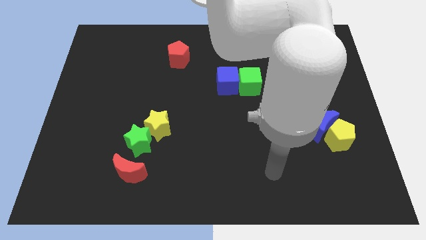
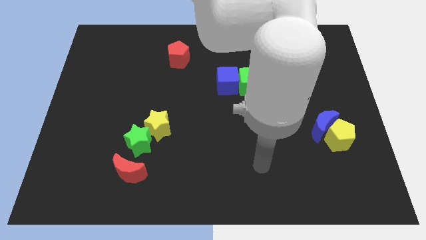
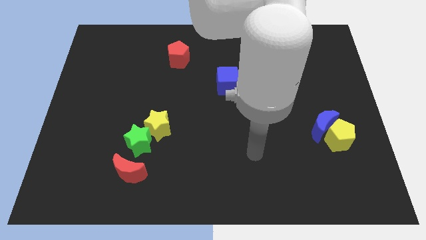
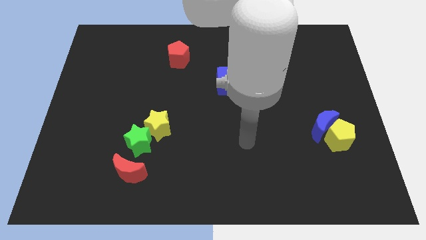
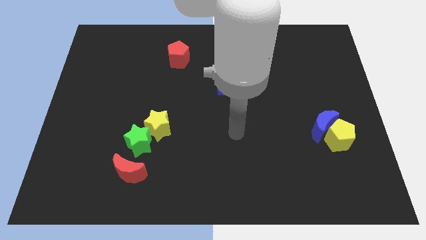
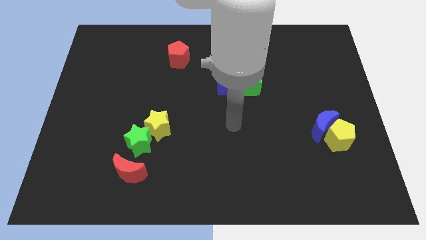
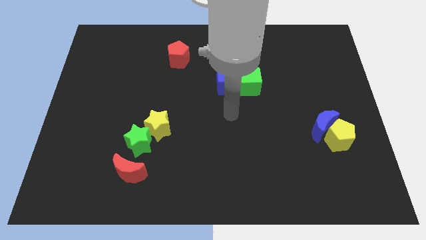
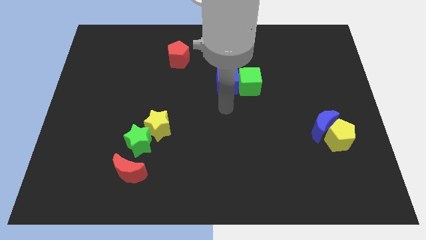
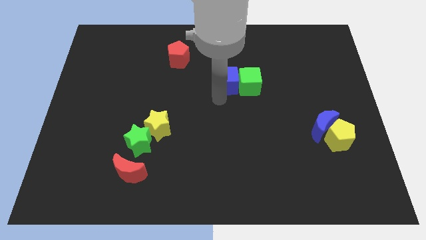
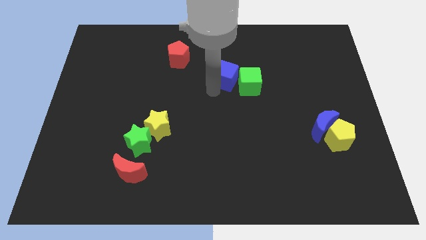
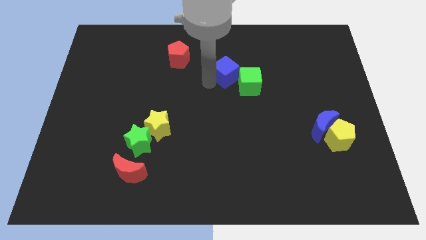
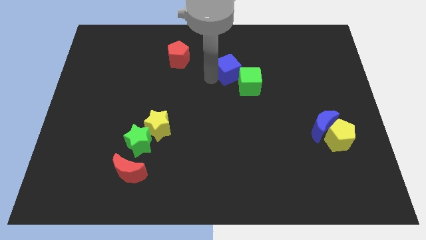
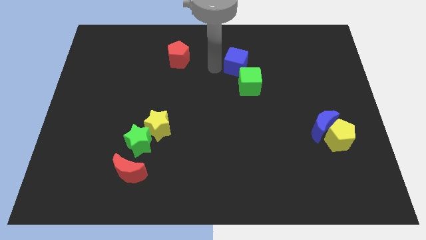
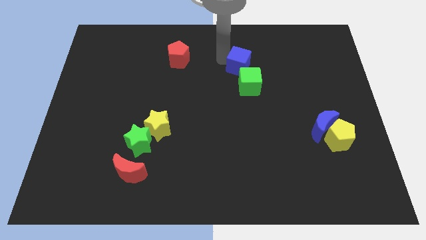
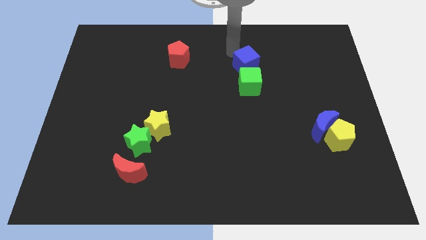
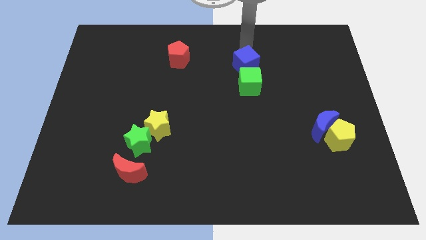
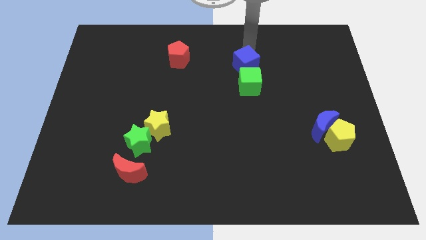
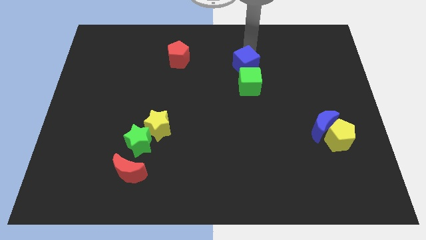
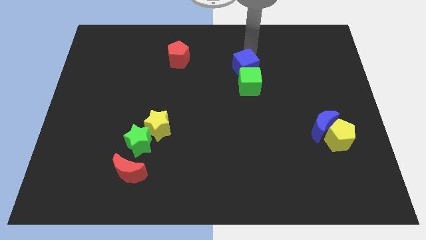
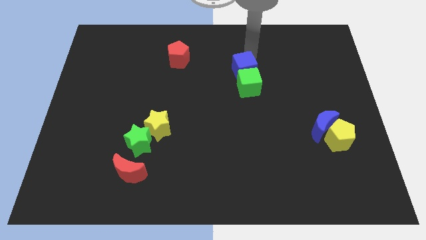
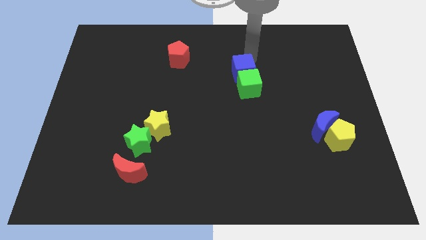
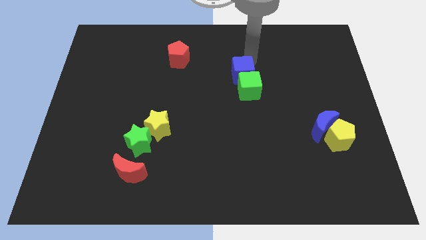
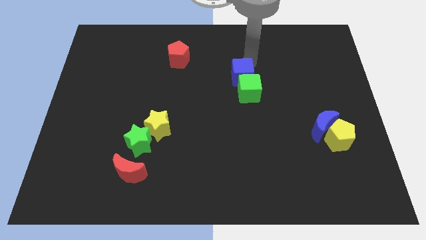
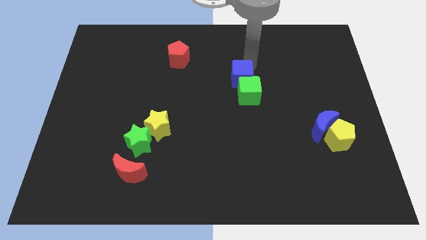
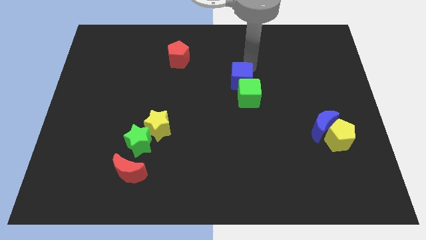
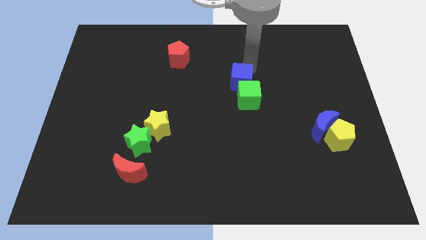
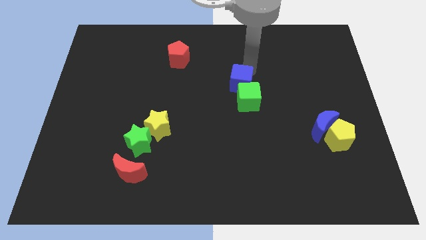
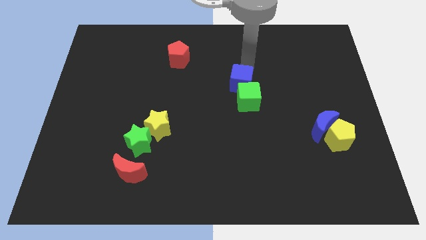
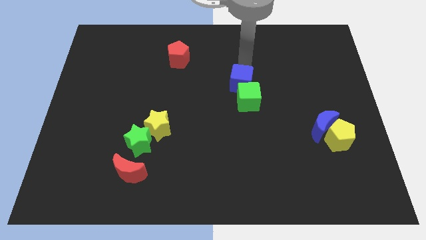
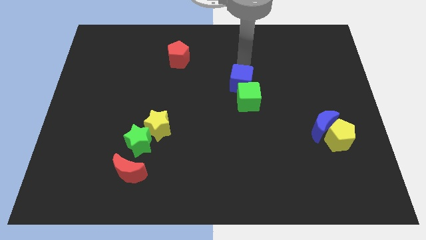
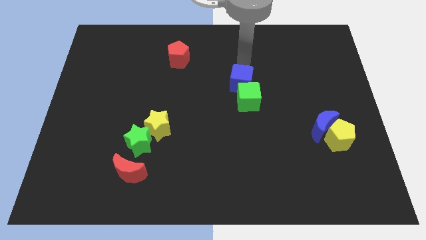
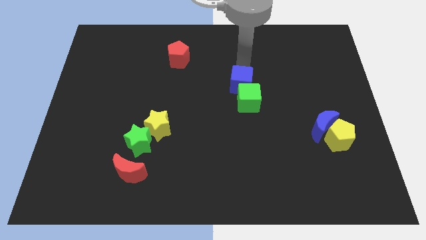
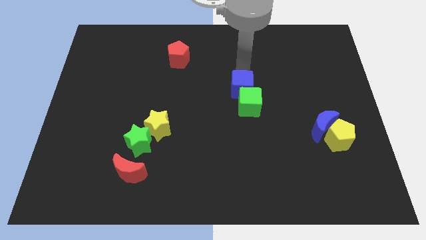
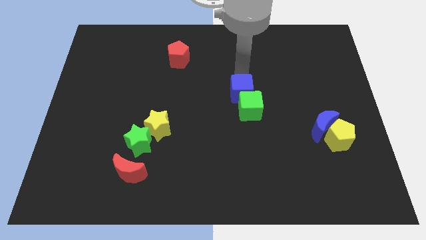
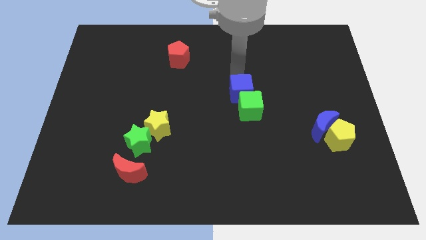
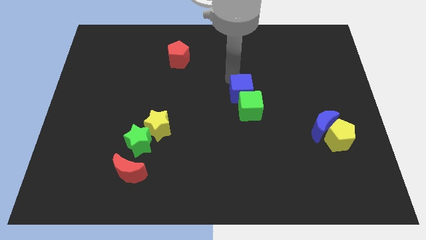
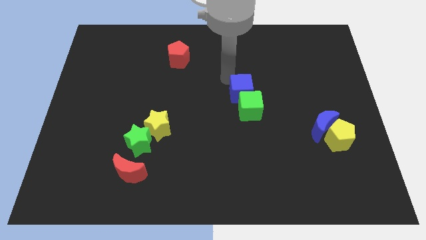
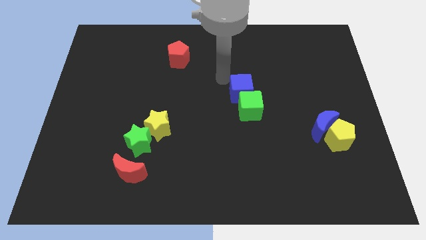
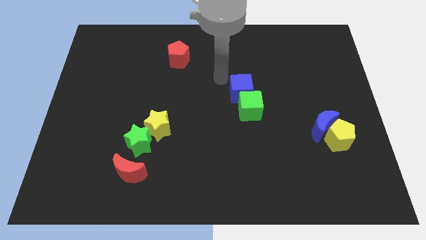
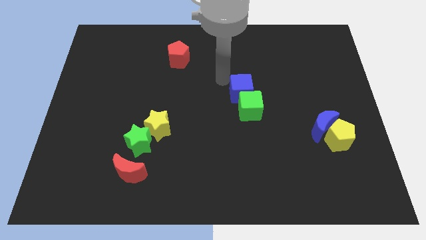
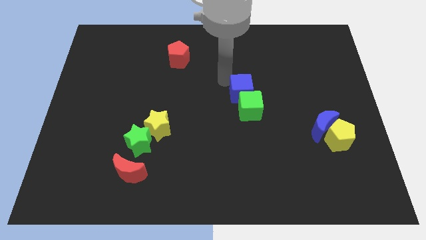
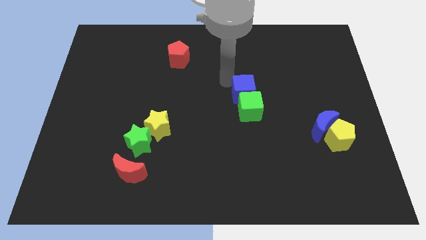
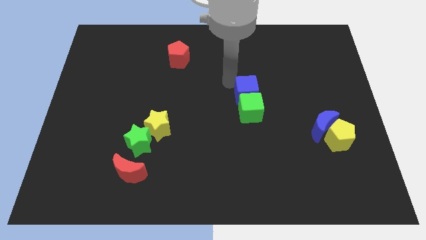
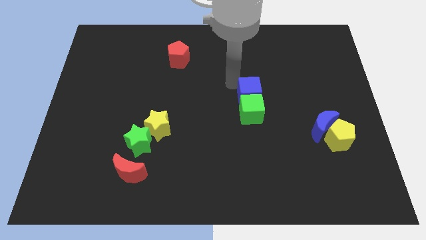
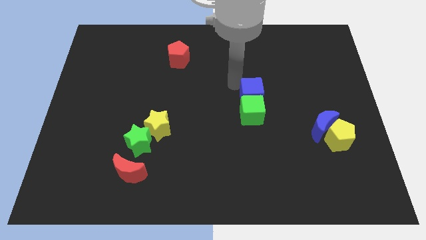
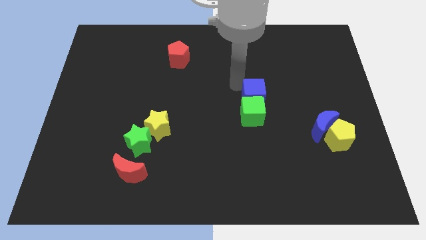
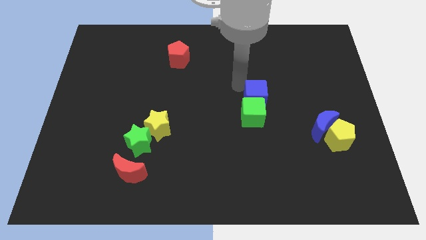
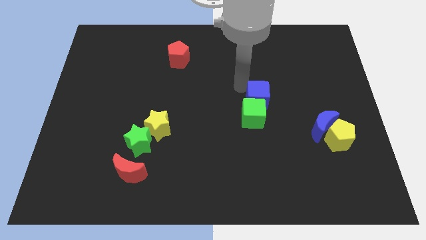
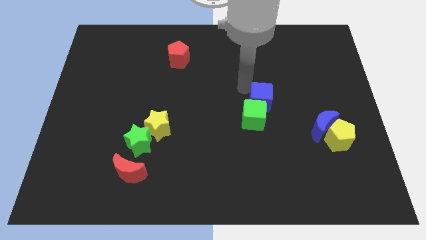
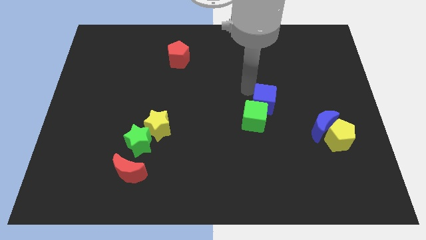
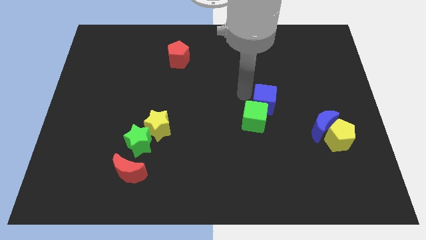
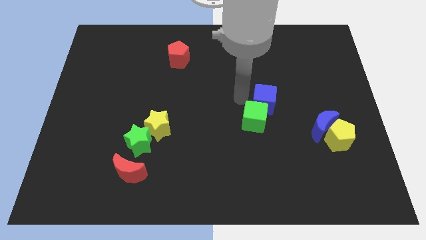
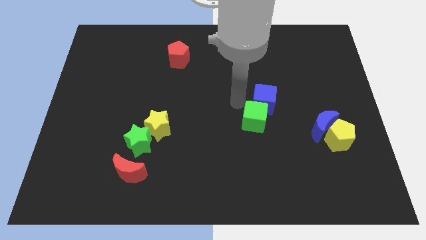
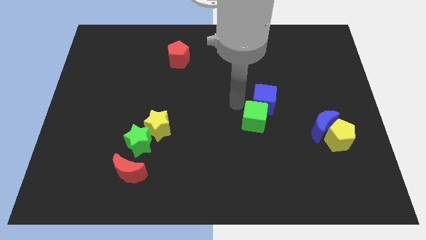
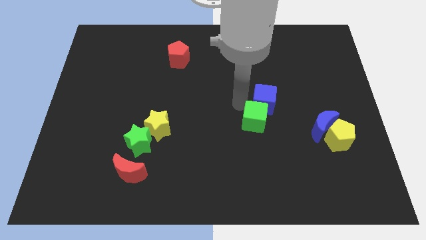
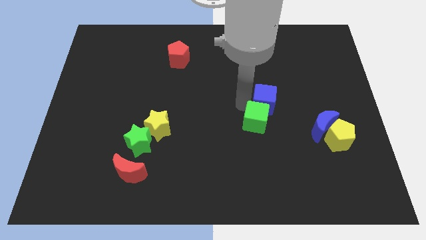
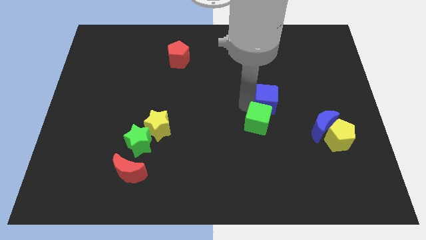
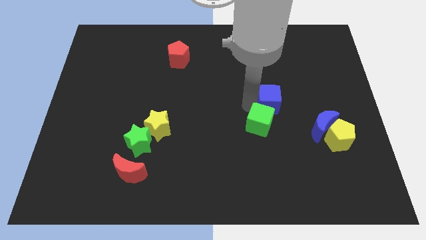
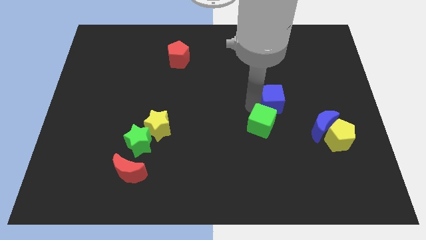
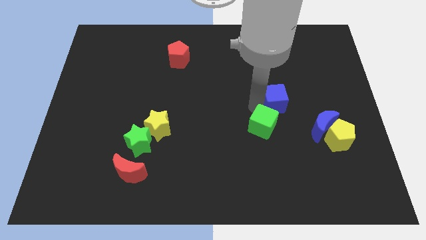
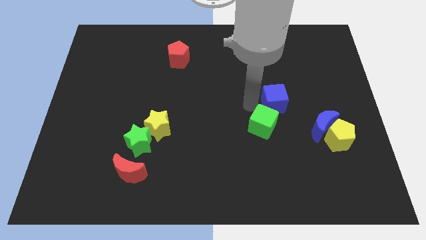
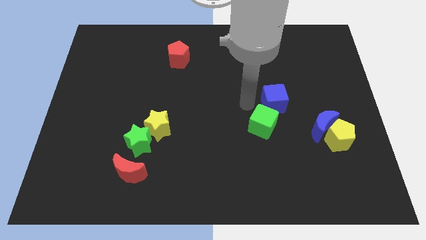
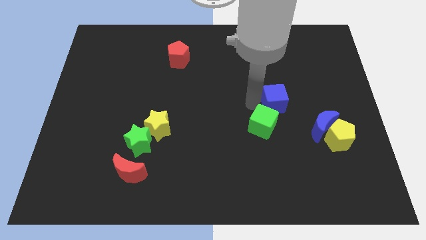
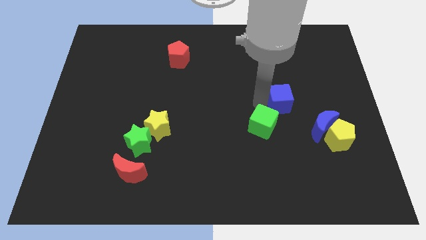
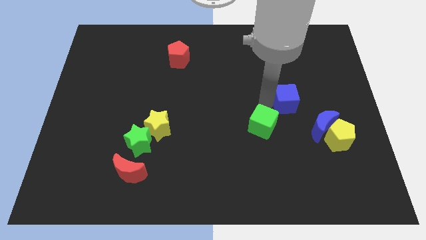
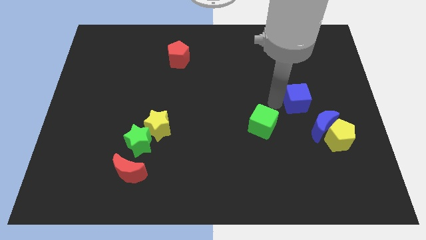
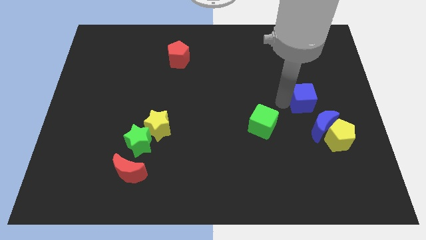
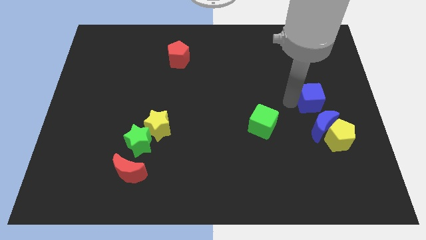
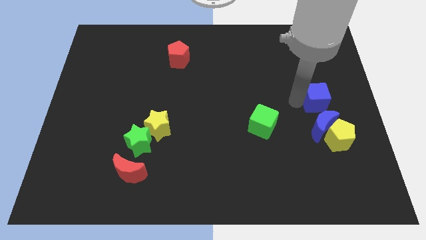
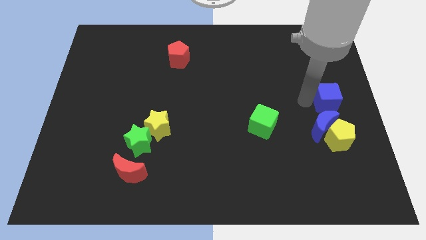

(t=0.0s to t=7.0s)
move the blue cube to the center right

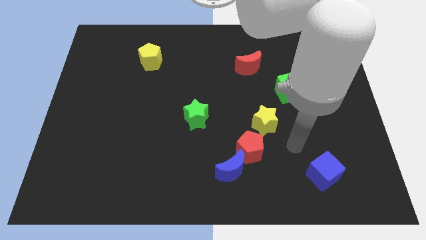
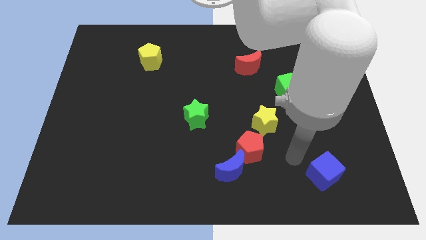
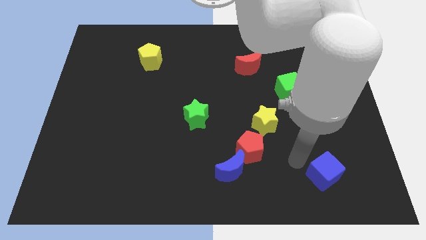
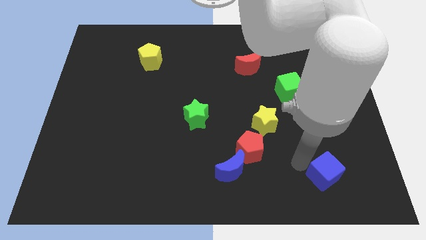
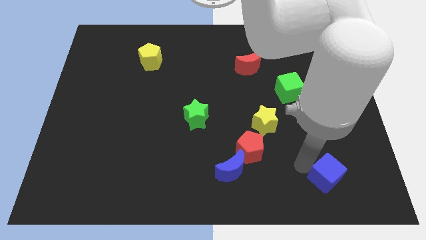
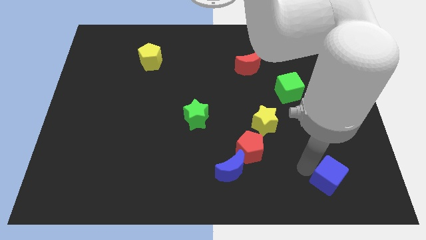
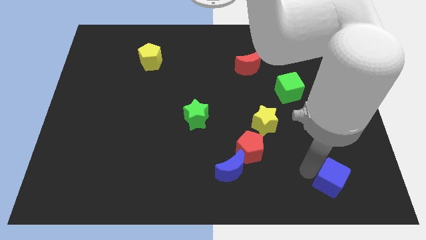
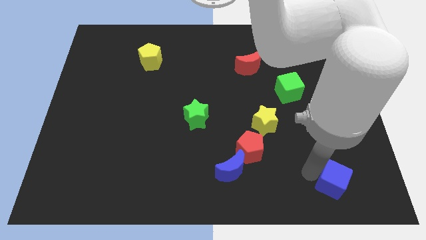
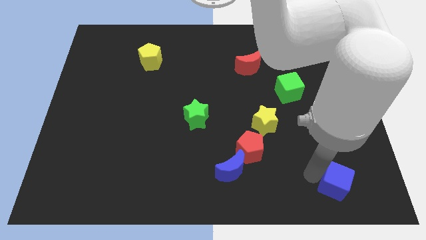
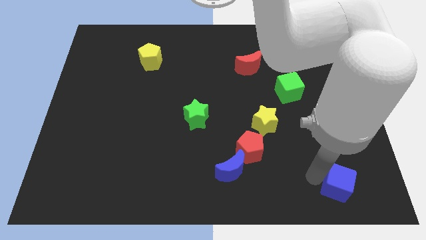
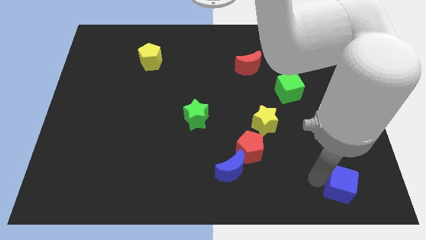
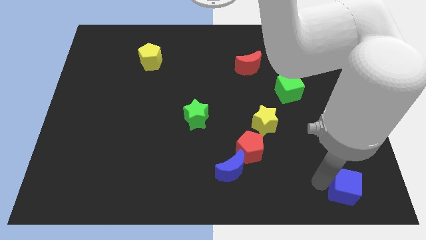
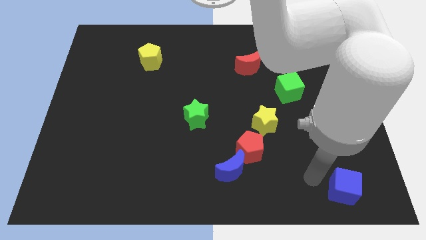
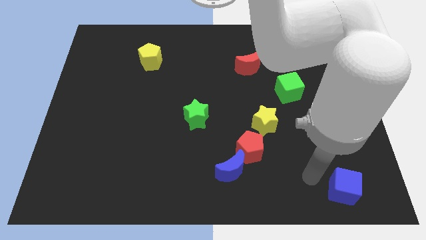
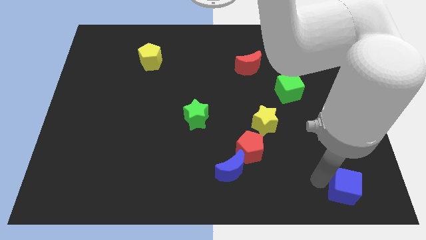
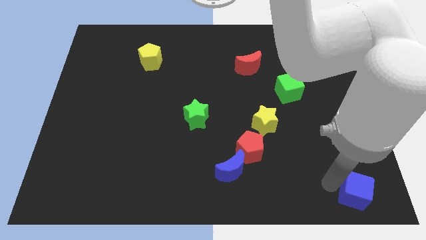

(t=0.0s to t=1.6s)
slide the blue cube to the bottom right
